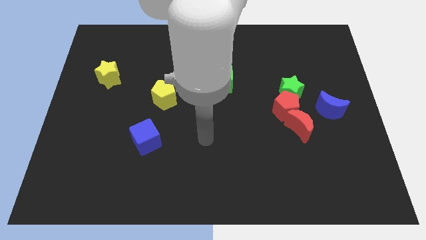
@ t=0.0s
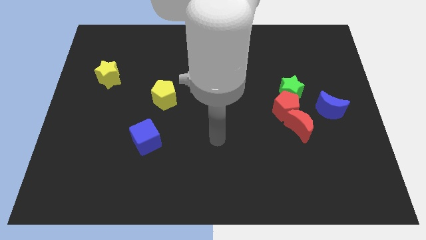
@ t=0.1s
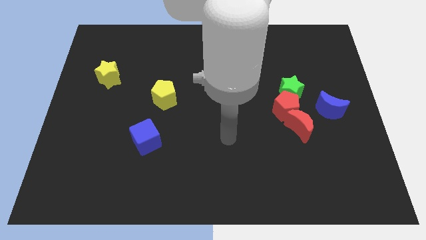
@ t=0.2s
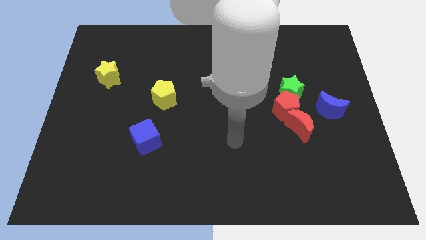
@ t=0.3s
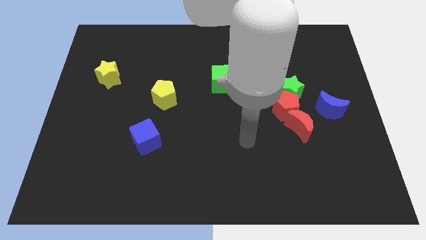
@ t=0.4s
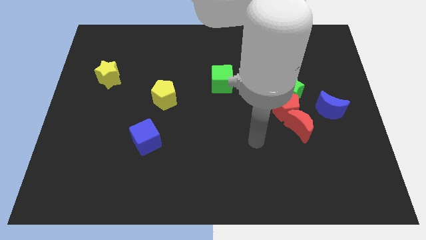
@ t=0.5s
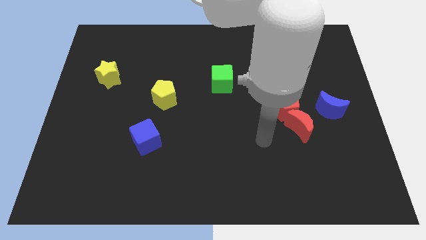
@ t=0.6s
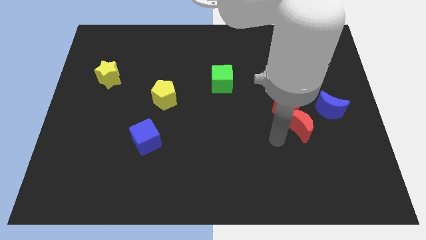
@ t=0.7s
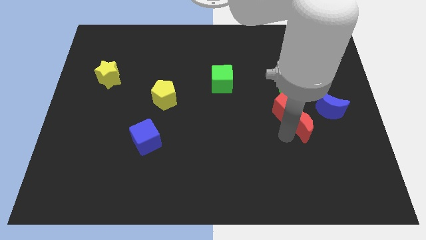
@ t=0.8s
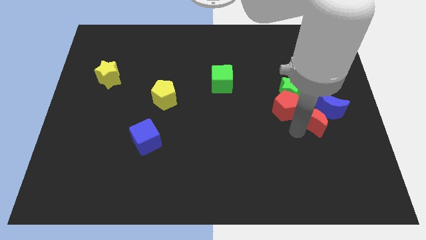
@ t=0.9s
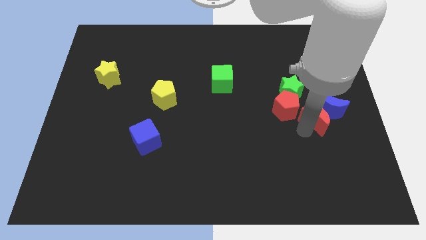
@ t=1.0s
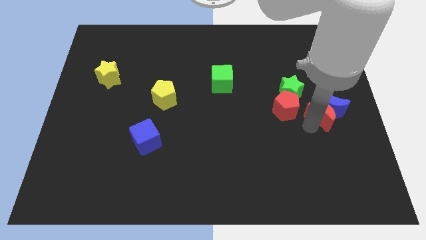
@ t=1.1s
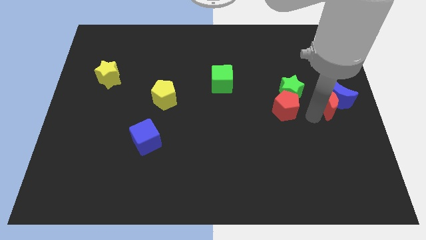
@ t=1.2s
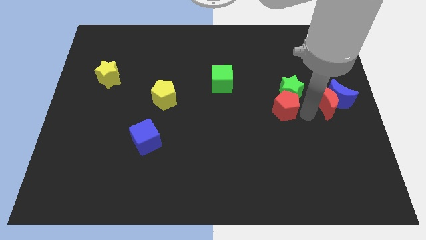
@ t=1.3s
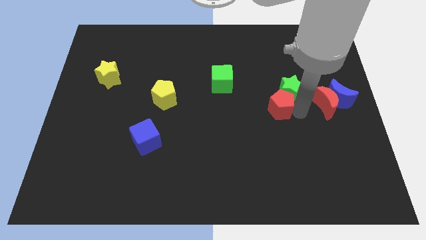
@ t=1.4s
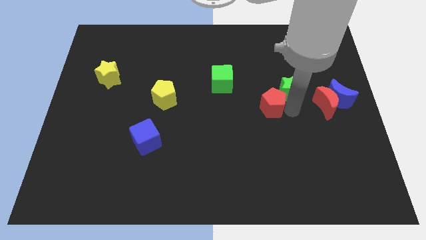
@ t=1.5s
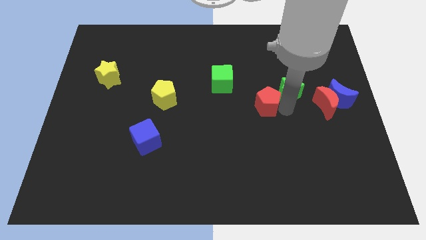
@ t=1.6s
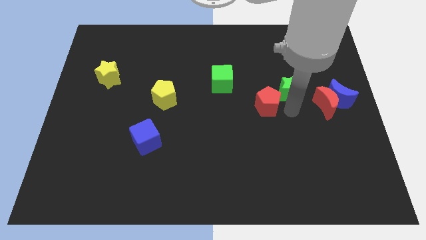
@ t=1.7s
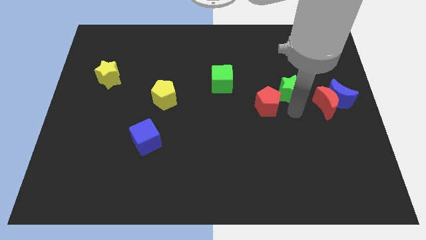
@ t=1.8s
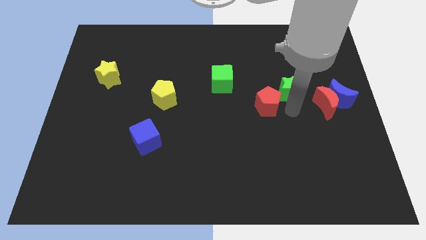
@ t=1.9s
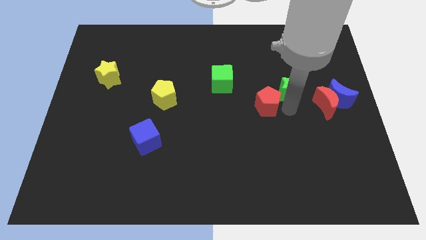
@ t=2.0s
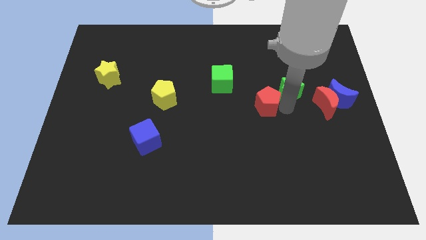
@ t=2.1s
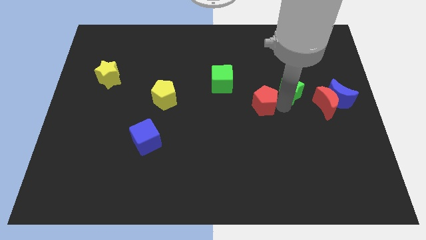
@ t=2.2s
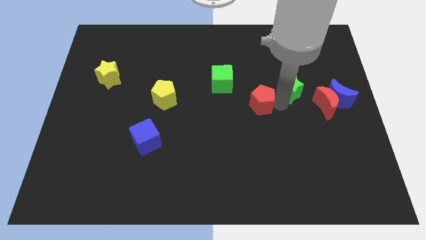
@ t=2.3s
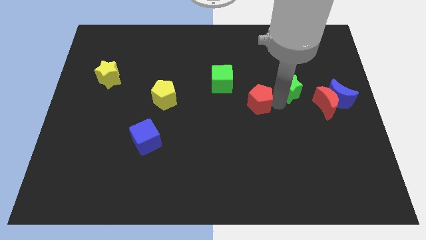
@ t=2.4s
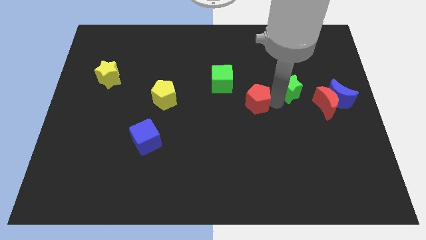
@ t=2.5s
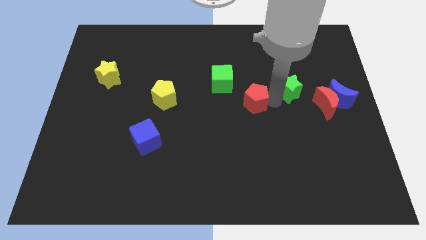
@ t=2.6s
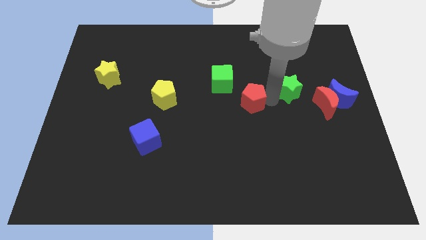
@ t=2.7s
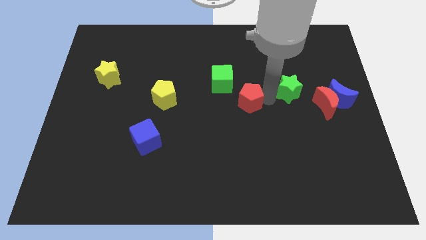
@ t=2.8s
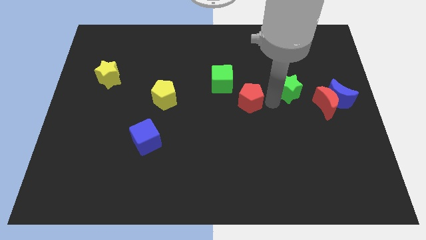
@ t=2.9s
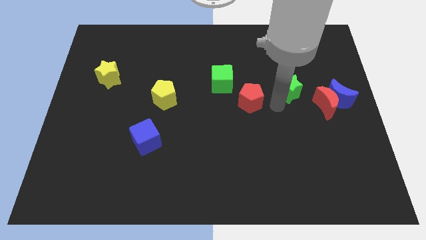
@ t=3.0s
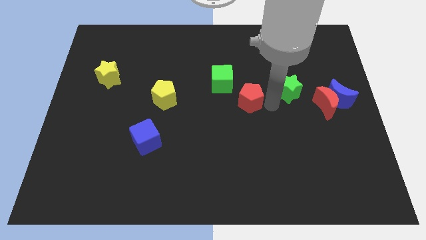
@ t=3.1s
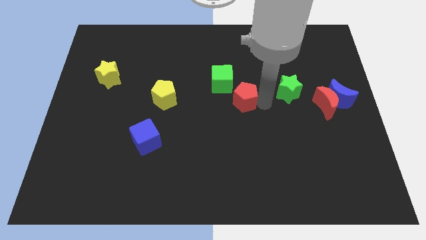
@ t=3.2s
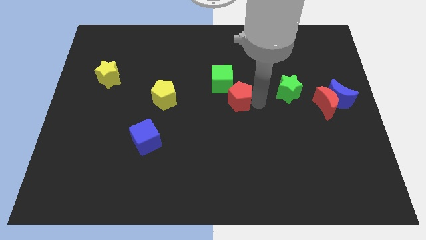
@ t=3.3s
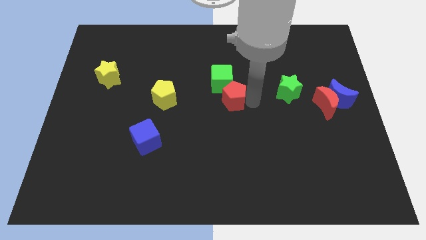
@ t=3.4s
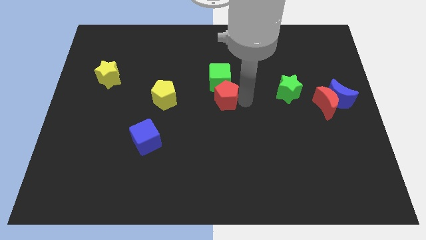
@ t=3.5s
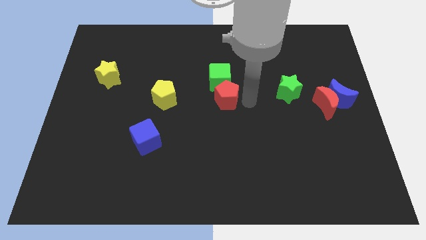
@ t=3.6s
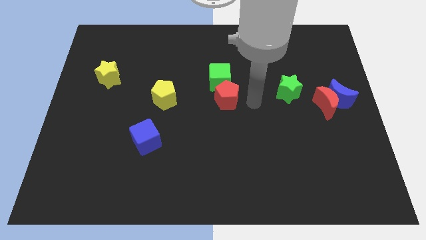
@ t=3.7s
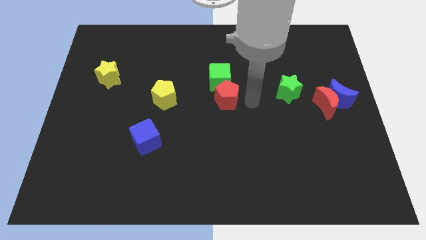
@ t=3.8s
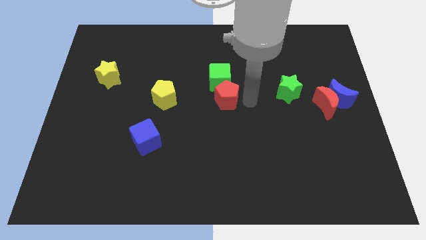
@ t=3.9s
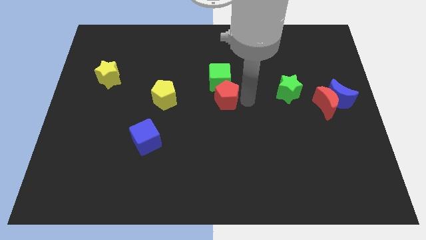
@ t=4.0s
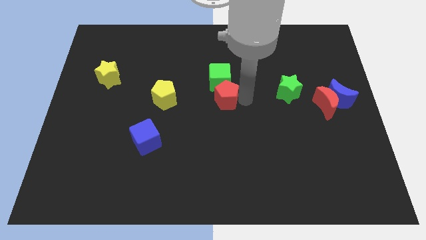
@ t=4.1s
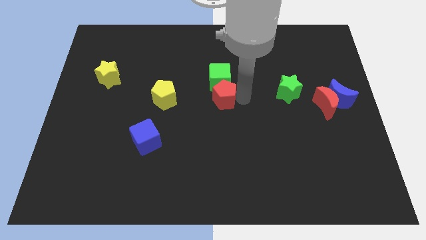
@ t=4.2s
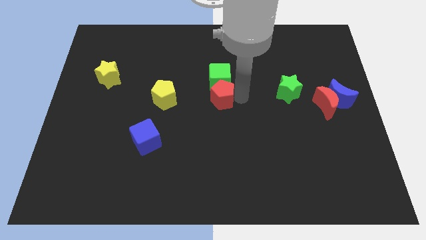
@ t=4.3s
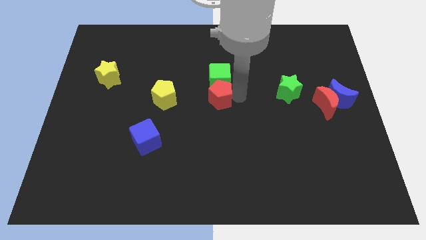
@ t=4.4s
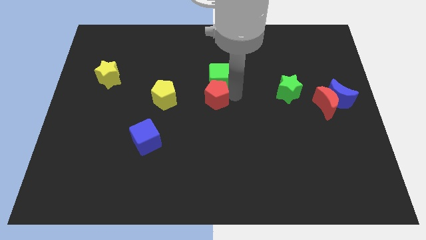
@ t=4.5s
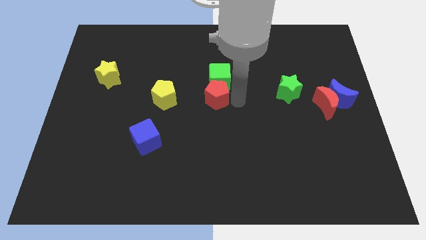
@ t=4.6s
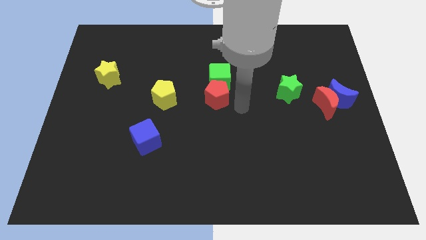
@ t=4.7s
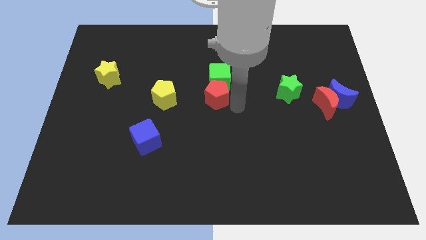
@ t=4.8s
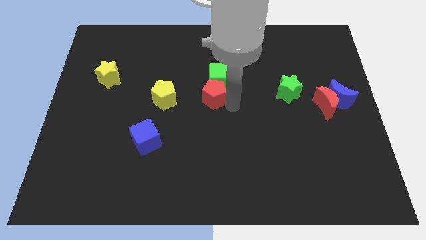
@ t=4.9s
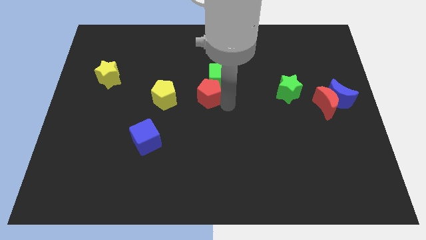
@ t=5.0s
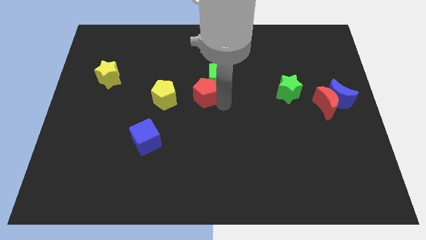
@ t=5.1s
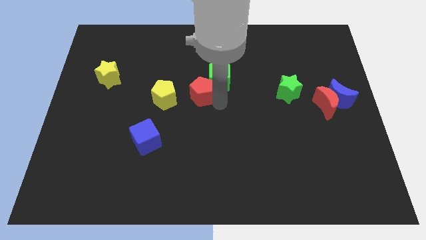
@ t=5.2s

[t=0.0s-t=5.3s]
slide the red pentagon to the left side of the green cube

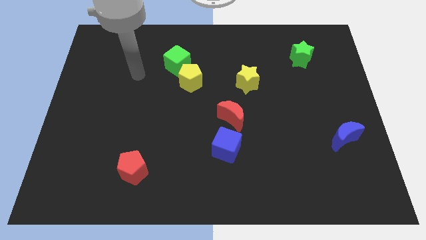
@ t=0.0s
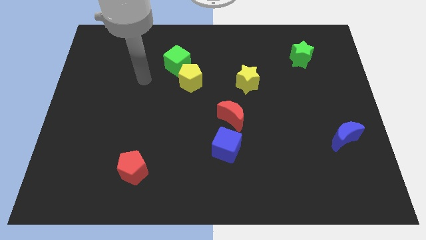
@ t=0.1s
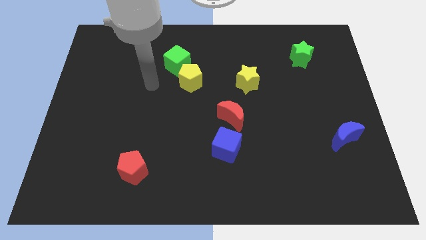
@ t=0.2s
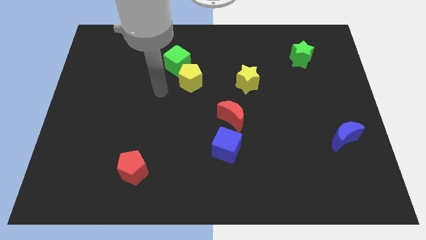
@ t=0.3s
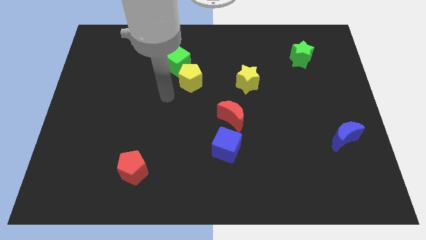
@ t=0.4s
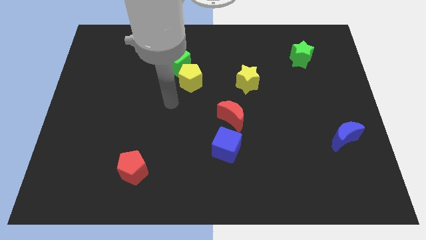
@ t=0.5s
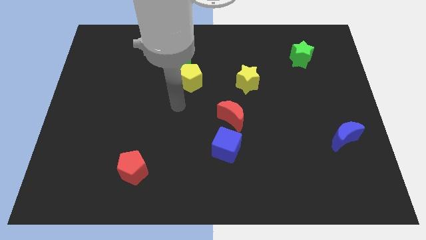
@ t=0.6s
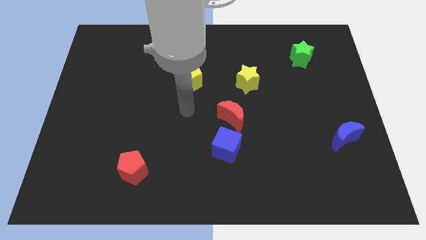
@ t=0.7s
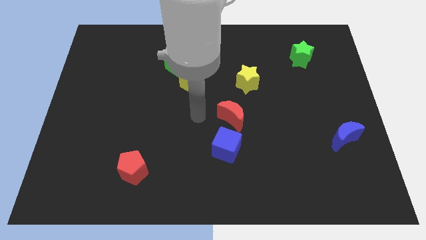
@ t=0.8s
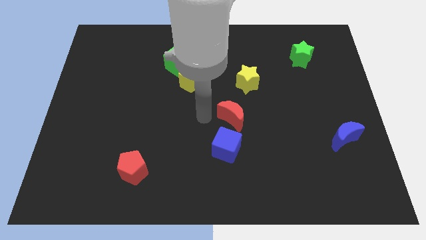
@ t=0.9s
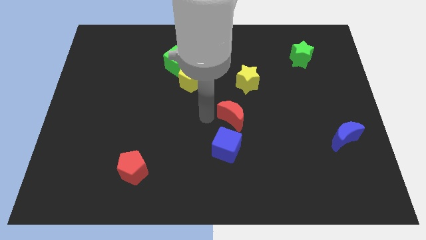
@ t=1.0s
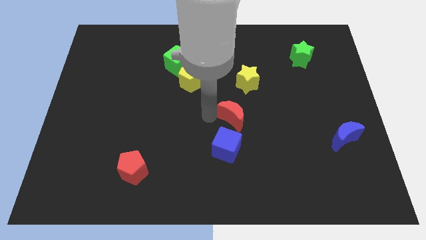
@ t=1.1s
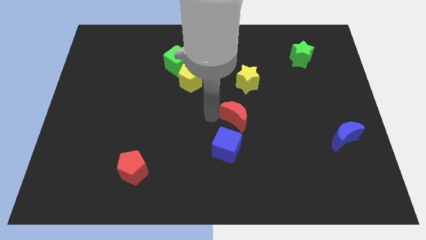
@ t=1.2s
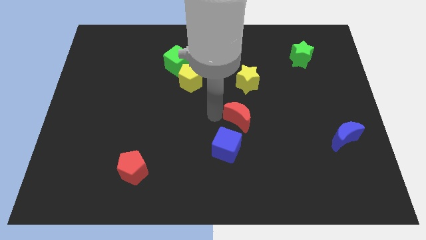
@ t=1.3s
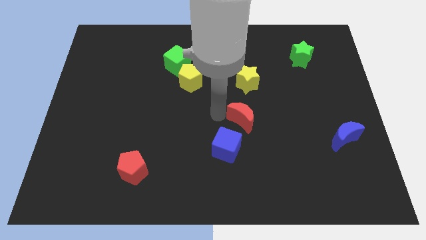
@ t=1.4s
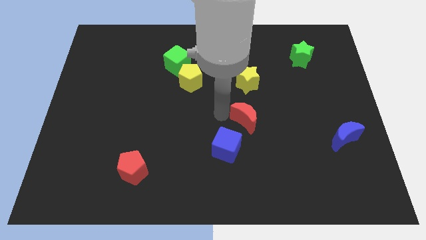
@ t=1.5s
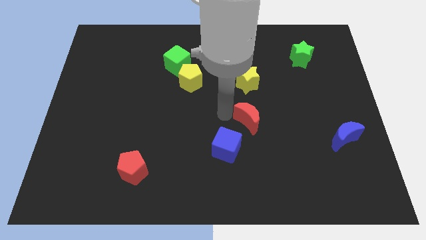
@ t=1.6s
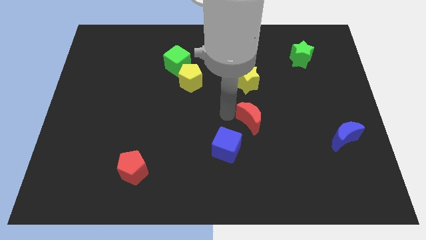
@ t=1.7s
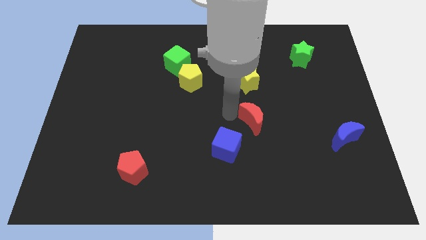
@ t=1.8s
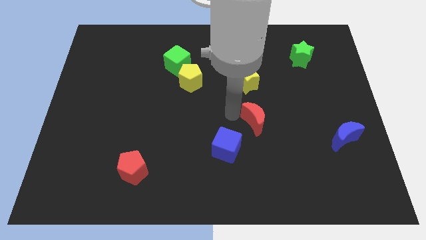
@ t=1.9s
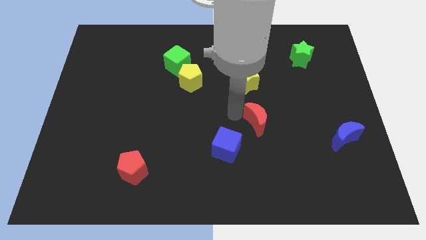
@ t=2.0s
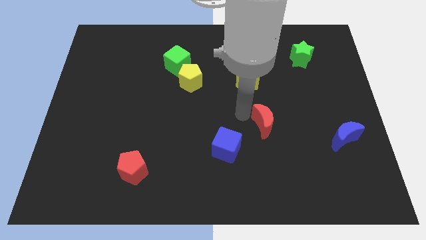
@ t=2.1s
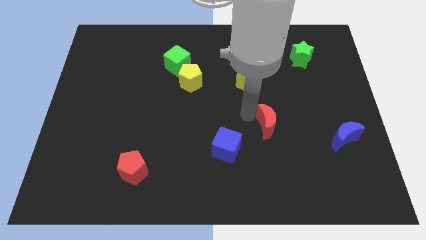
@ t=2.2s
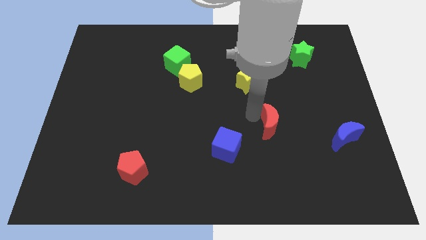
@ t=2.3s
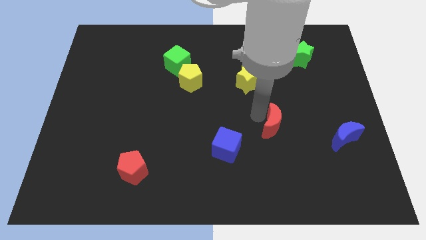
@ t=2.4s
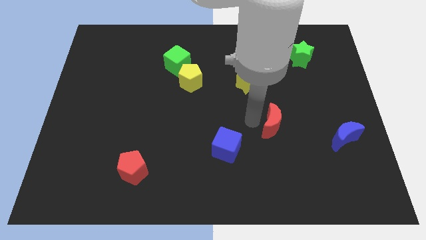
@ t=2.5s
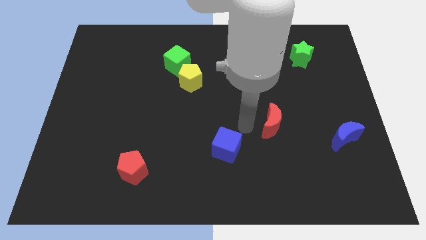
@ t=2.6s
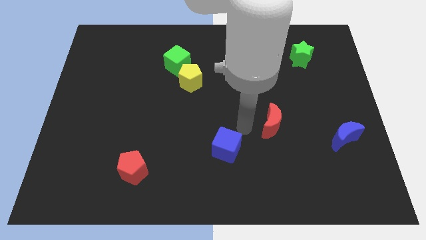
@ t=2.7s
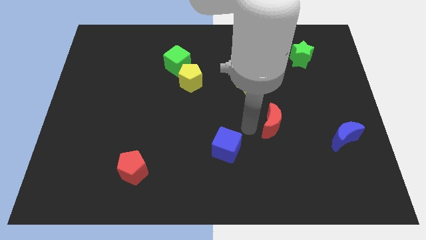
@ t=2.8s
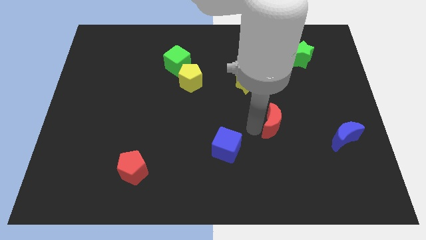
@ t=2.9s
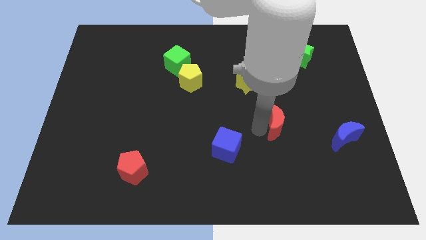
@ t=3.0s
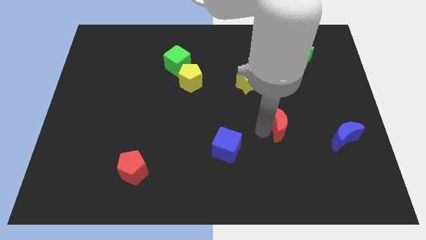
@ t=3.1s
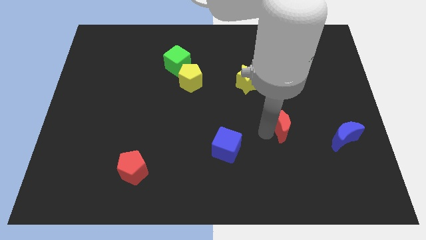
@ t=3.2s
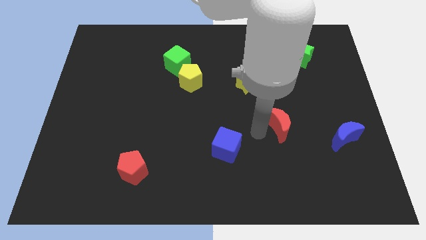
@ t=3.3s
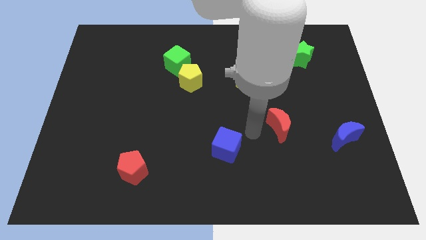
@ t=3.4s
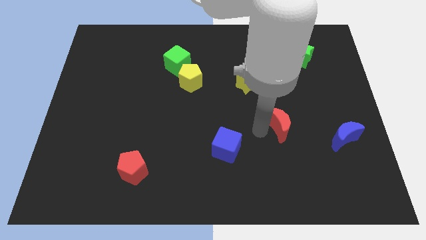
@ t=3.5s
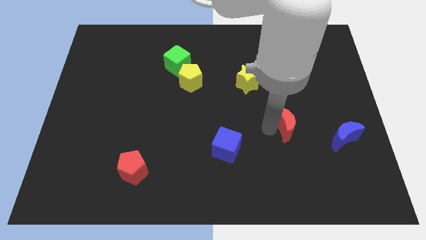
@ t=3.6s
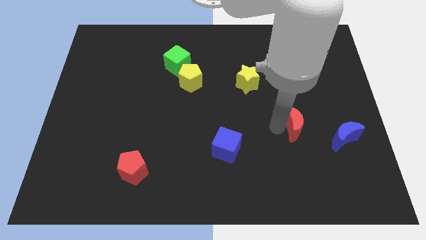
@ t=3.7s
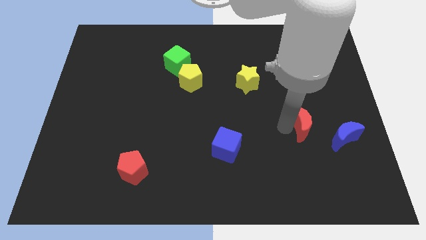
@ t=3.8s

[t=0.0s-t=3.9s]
put the red moon to the top left of the blue moon
